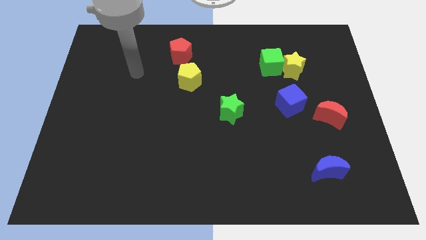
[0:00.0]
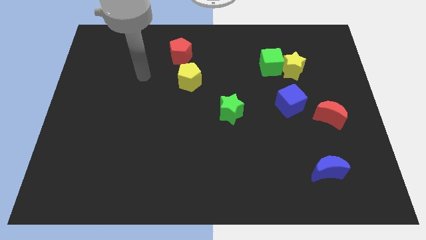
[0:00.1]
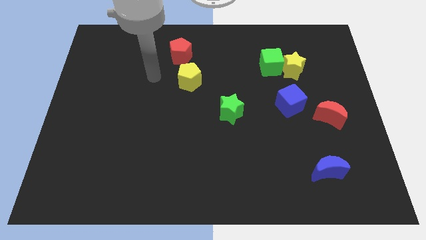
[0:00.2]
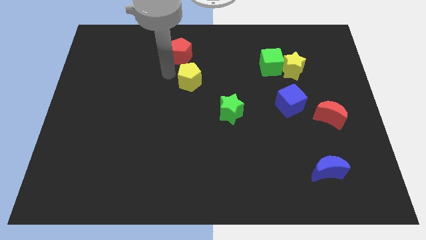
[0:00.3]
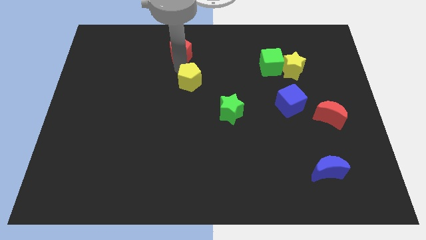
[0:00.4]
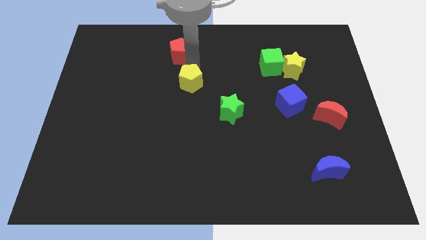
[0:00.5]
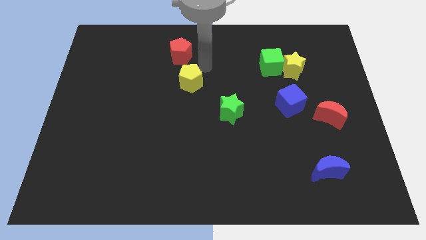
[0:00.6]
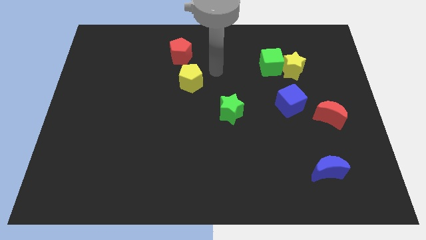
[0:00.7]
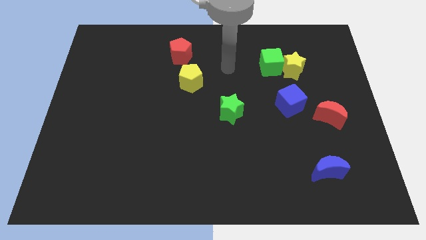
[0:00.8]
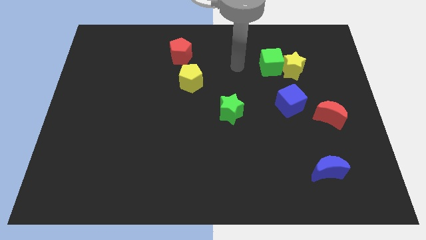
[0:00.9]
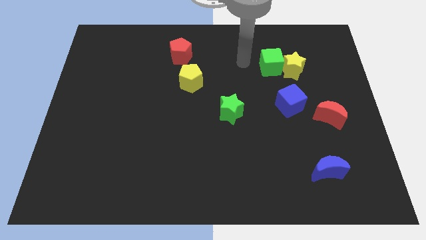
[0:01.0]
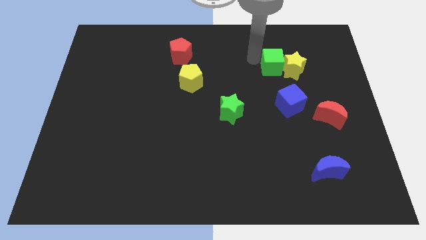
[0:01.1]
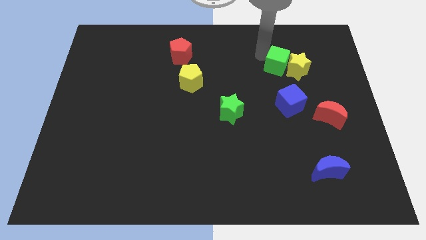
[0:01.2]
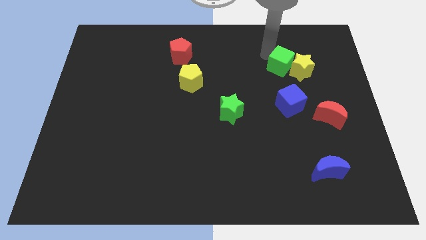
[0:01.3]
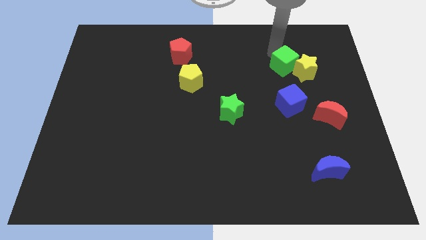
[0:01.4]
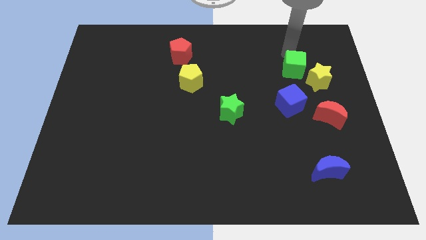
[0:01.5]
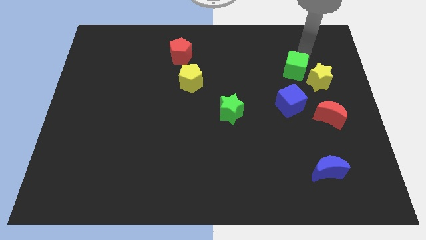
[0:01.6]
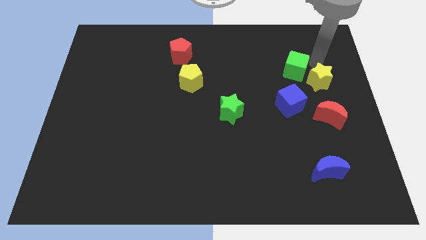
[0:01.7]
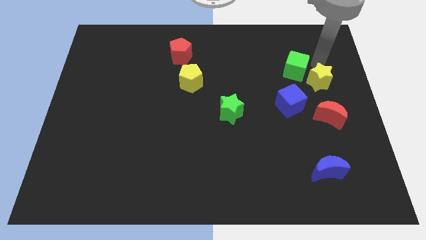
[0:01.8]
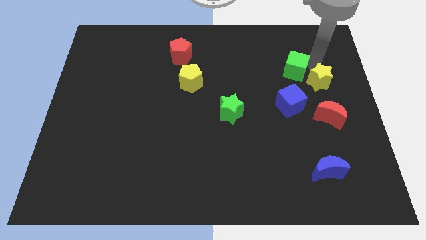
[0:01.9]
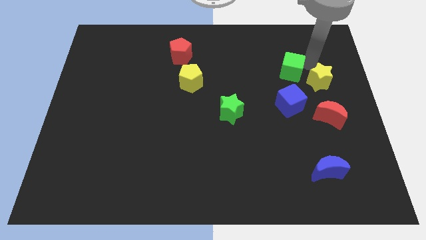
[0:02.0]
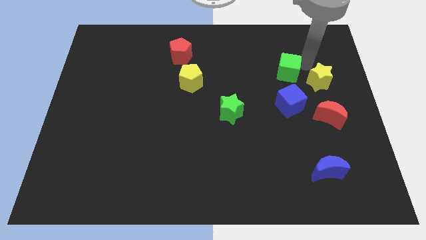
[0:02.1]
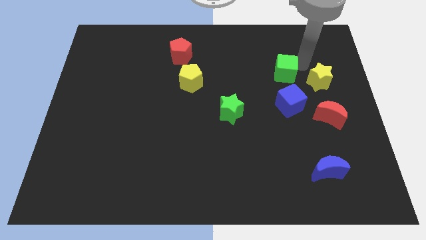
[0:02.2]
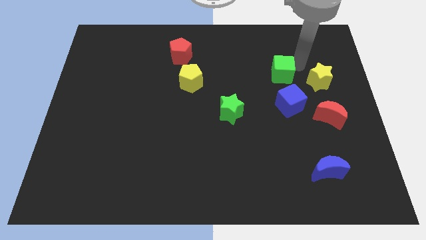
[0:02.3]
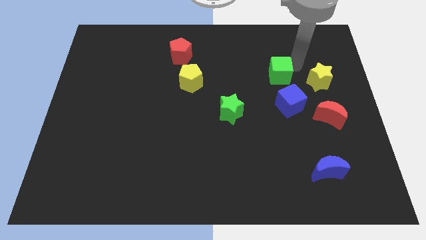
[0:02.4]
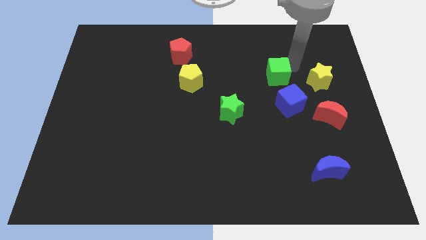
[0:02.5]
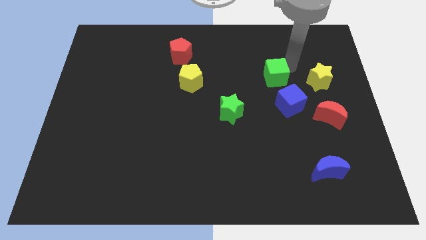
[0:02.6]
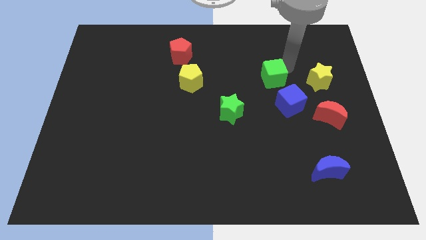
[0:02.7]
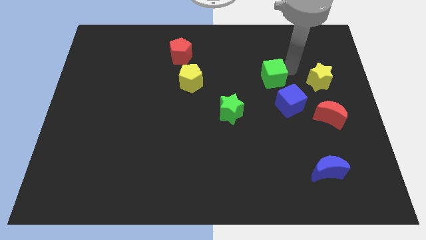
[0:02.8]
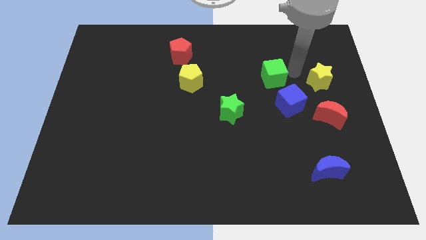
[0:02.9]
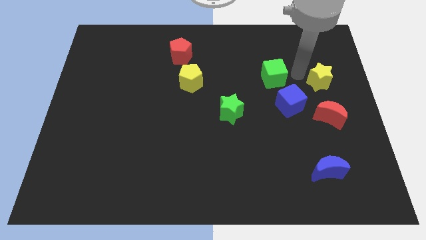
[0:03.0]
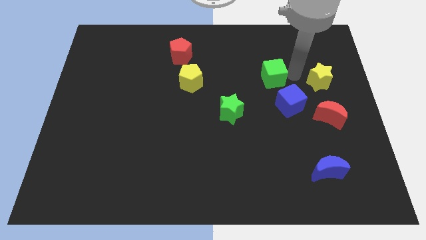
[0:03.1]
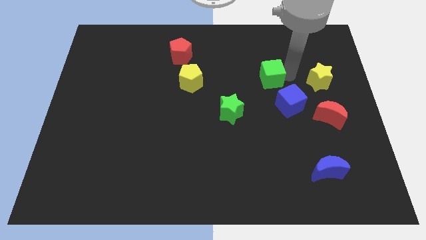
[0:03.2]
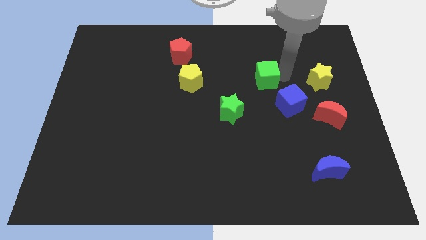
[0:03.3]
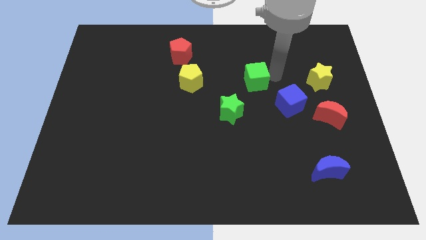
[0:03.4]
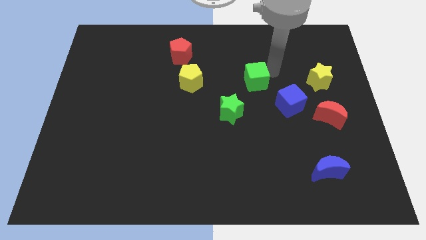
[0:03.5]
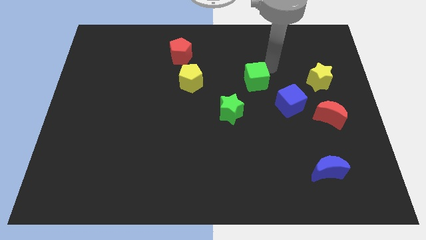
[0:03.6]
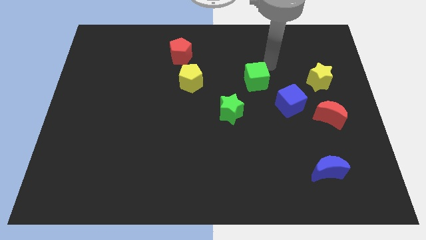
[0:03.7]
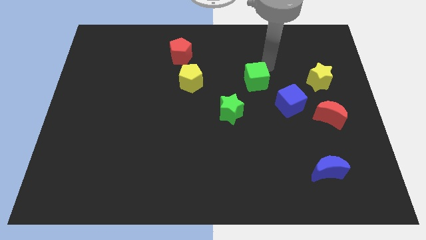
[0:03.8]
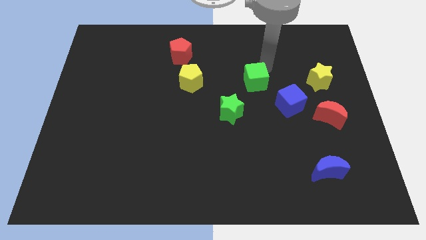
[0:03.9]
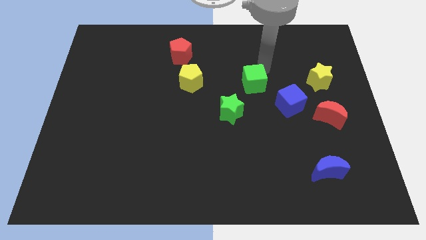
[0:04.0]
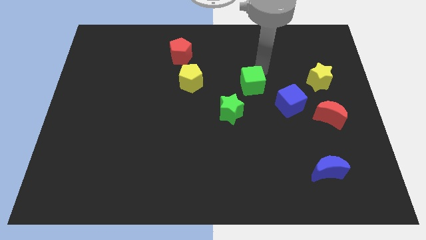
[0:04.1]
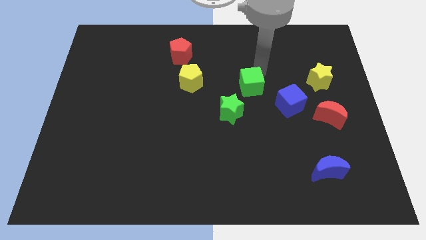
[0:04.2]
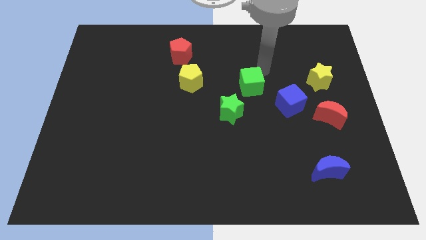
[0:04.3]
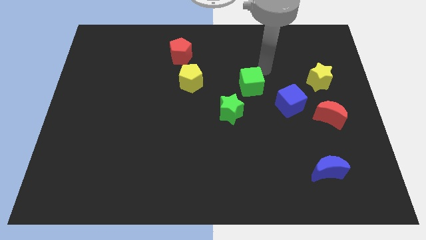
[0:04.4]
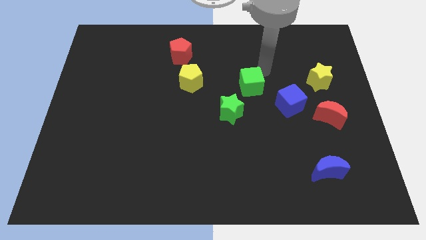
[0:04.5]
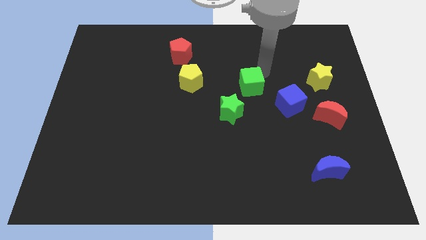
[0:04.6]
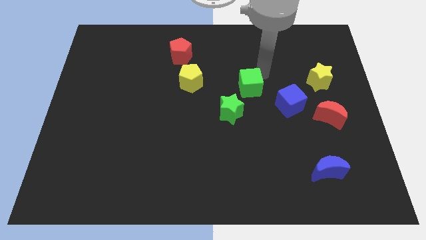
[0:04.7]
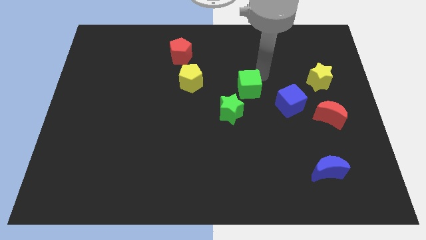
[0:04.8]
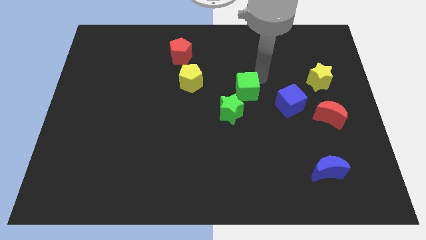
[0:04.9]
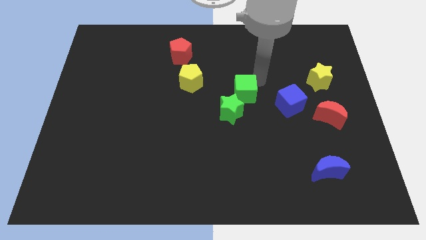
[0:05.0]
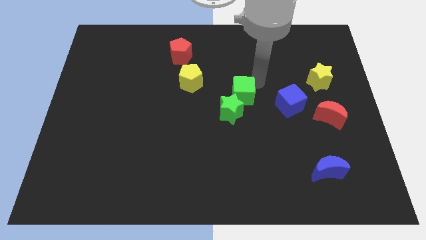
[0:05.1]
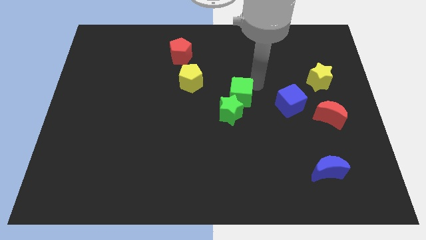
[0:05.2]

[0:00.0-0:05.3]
put the green cube close to the green star

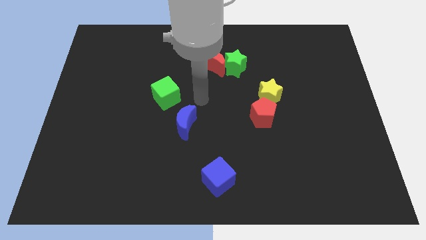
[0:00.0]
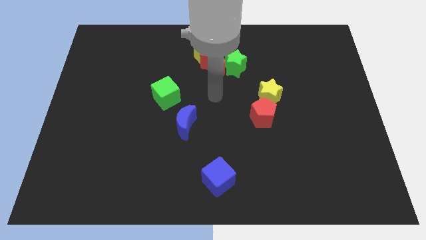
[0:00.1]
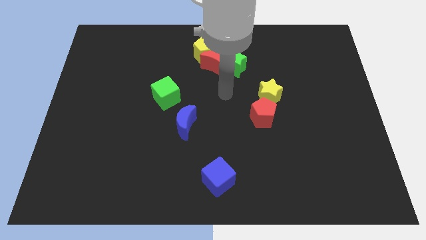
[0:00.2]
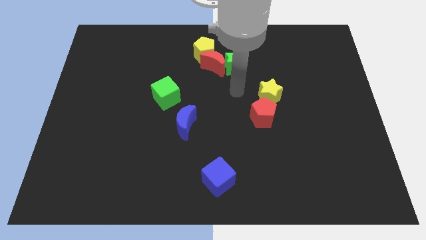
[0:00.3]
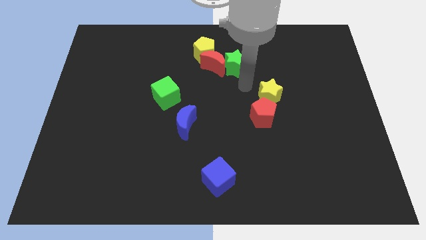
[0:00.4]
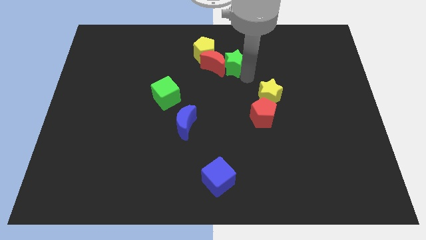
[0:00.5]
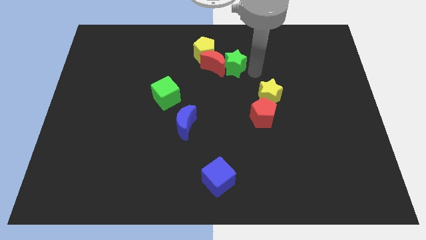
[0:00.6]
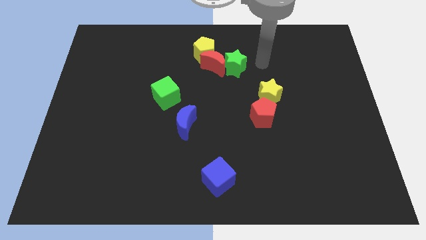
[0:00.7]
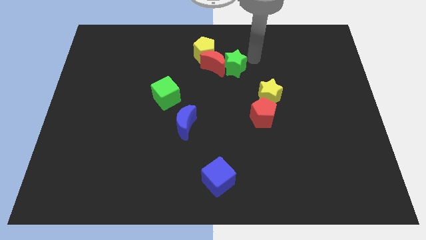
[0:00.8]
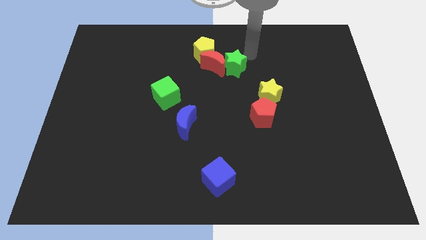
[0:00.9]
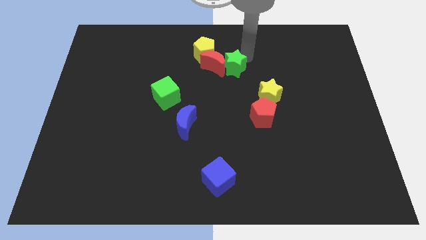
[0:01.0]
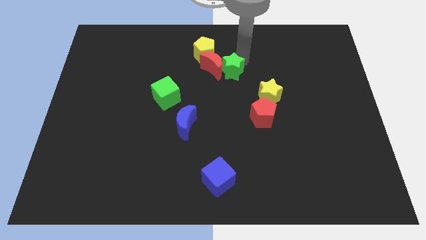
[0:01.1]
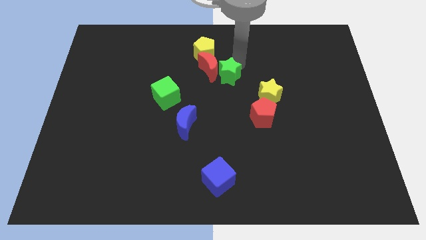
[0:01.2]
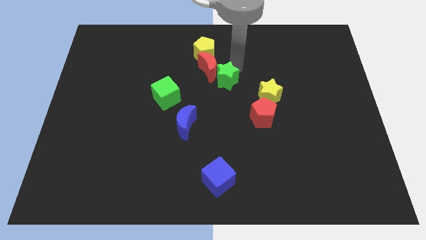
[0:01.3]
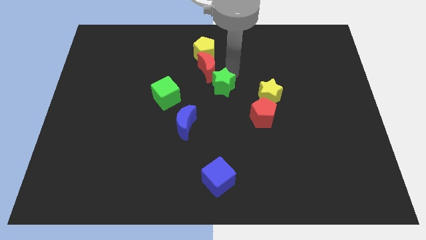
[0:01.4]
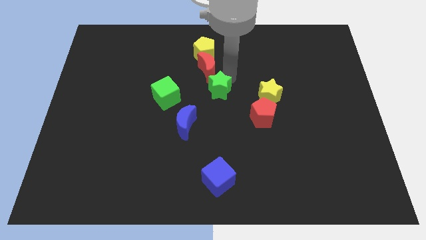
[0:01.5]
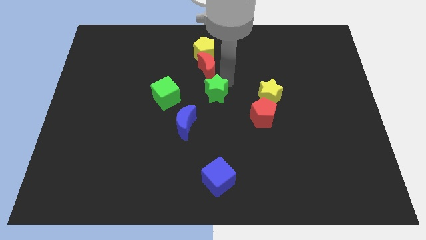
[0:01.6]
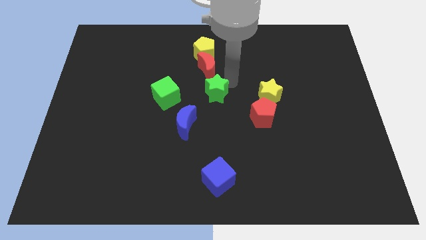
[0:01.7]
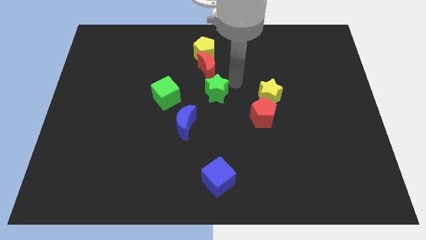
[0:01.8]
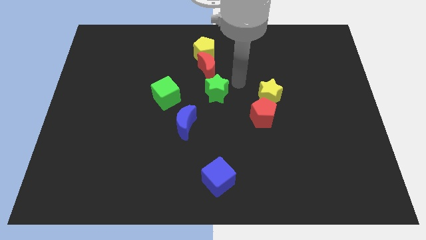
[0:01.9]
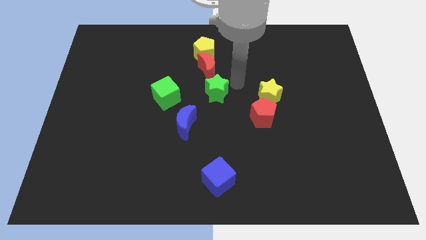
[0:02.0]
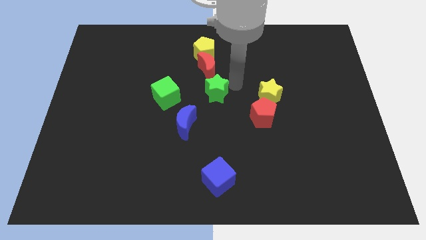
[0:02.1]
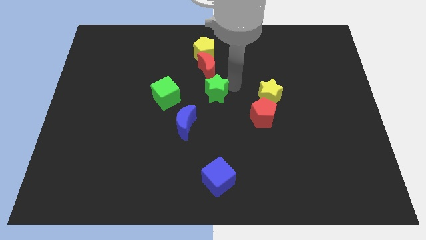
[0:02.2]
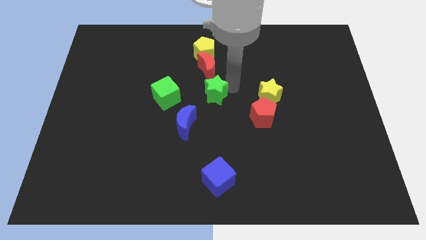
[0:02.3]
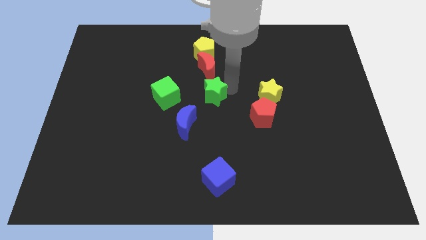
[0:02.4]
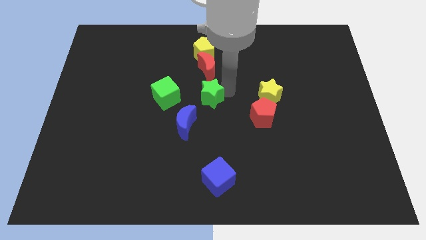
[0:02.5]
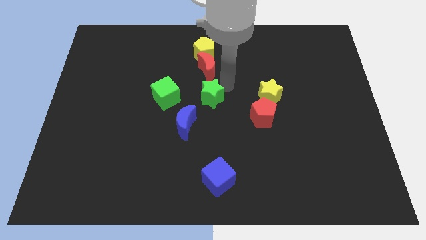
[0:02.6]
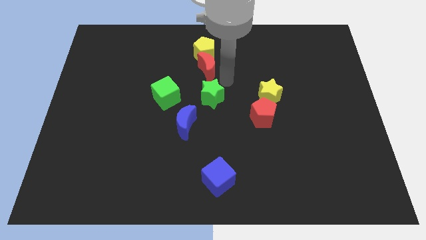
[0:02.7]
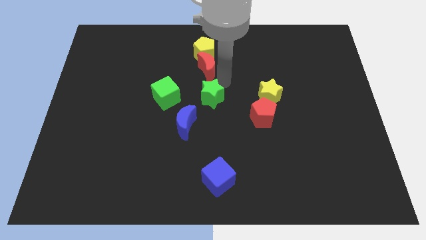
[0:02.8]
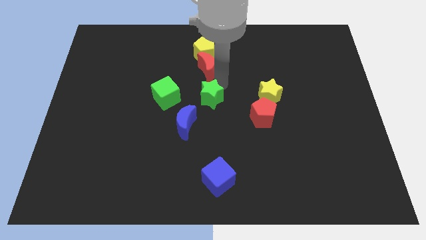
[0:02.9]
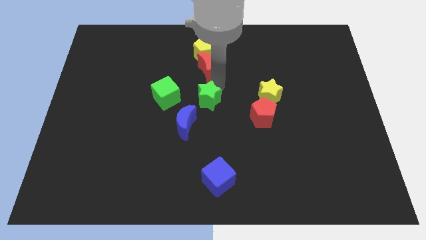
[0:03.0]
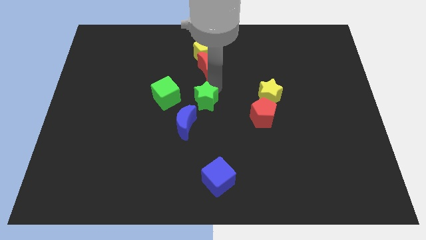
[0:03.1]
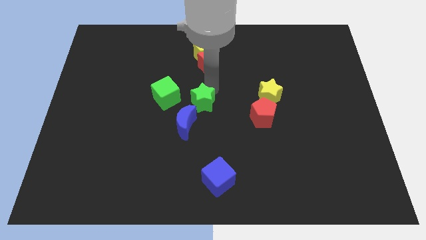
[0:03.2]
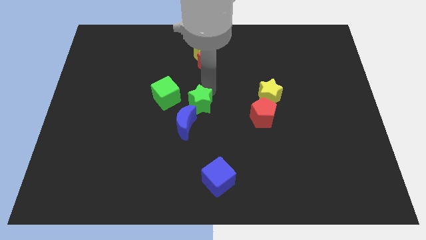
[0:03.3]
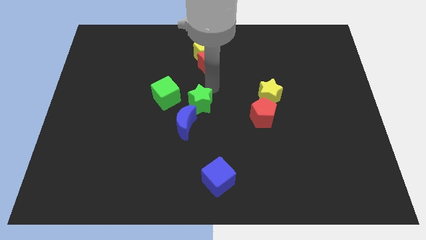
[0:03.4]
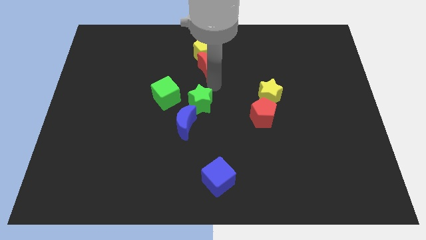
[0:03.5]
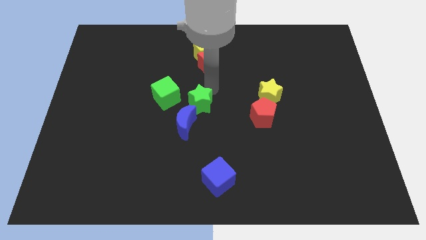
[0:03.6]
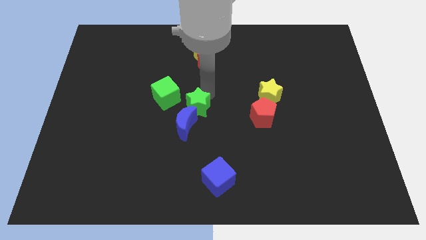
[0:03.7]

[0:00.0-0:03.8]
push the green star towards the blue moon
